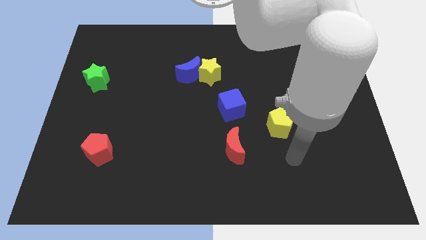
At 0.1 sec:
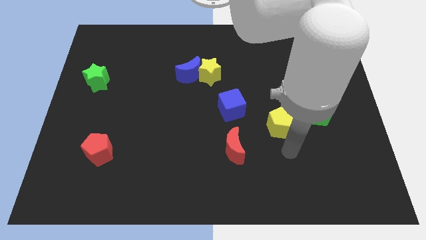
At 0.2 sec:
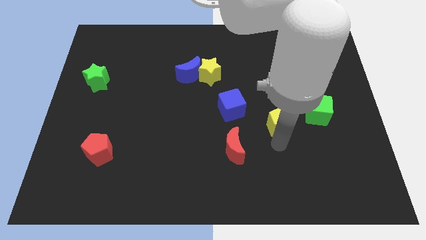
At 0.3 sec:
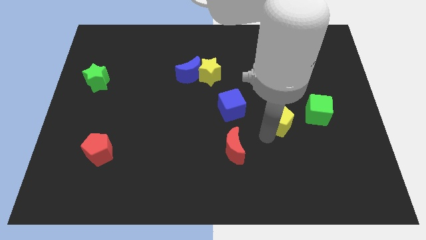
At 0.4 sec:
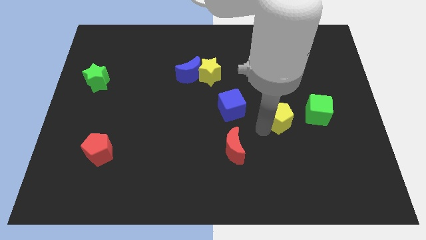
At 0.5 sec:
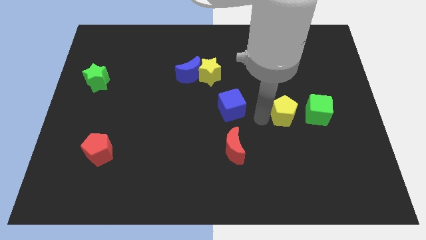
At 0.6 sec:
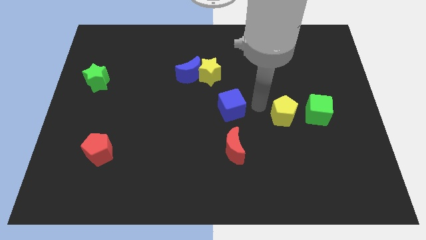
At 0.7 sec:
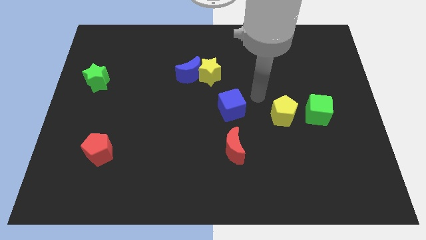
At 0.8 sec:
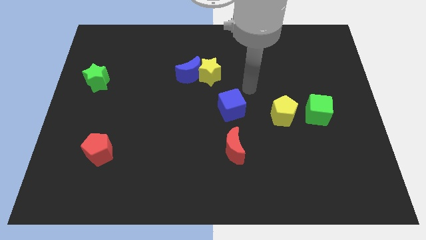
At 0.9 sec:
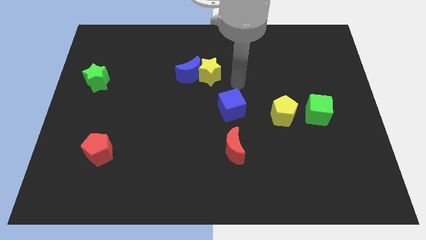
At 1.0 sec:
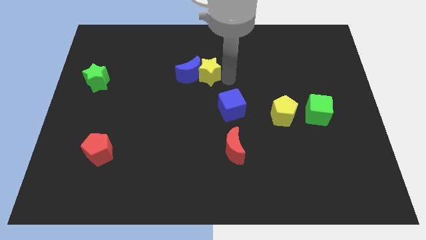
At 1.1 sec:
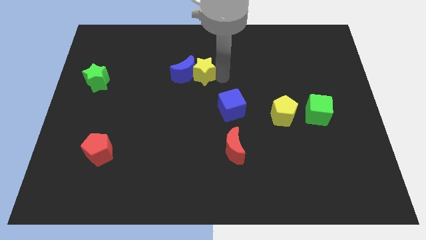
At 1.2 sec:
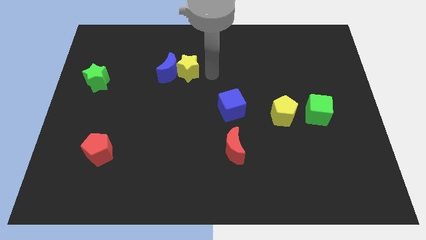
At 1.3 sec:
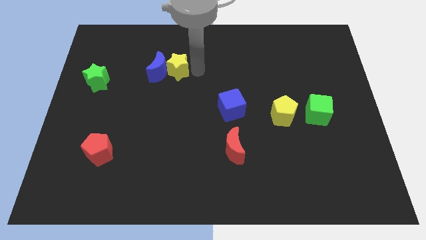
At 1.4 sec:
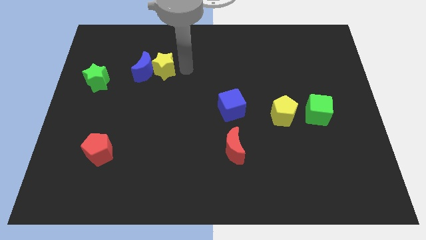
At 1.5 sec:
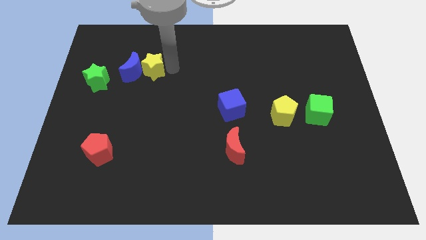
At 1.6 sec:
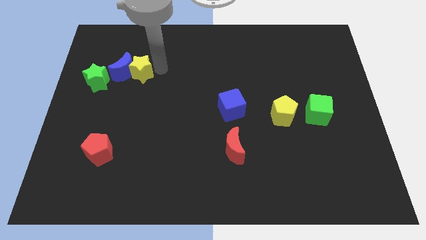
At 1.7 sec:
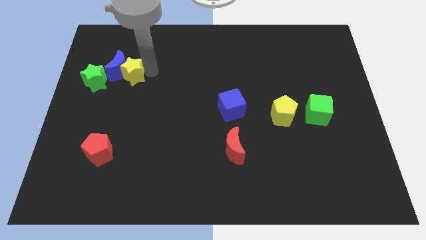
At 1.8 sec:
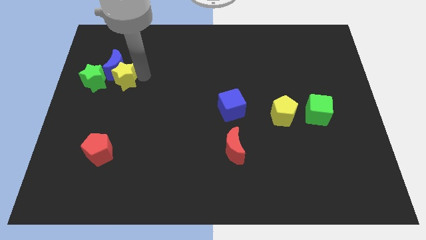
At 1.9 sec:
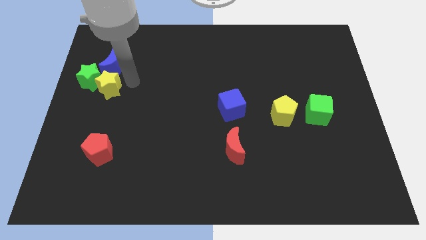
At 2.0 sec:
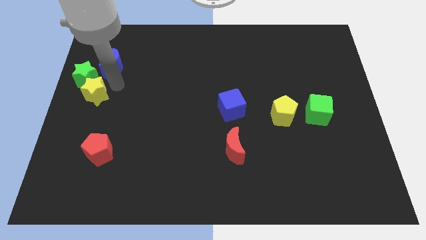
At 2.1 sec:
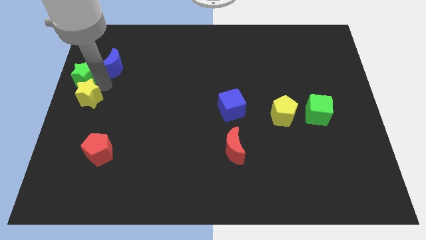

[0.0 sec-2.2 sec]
move the blue moon away from the yellow star

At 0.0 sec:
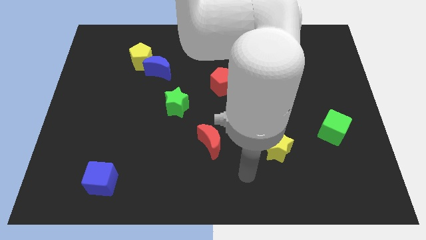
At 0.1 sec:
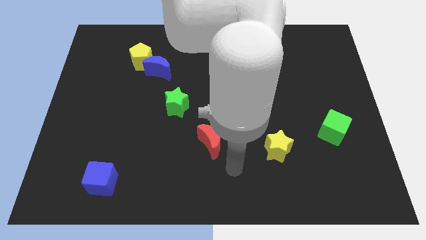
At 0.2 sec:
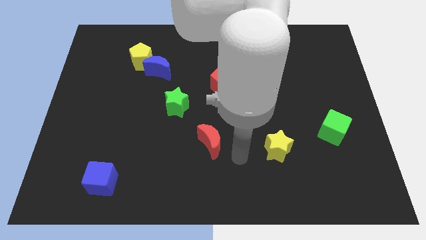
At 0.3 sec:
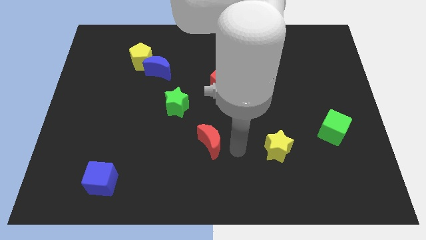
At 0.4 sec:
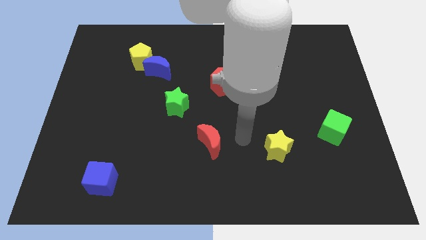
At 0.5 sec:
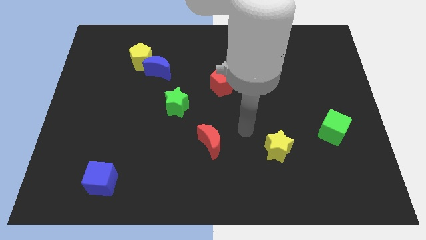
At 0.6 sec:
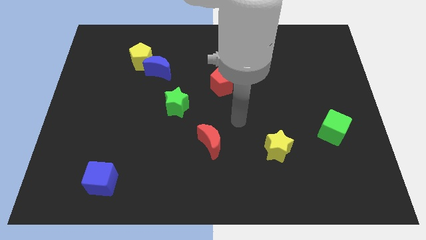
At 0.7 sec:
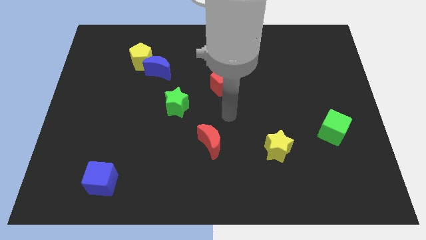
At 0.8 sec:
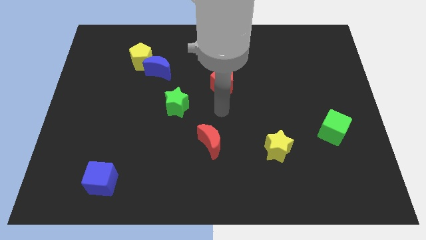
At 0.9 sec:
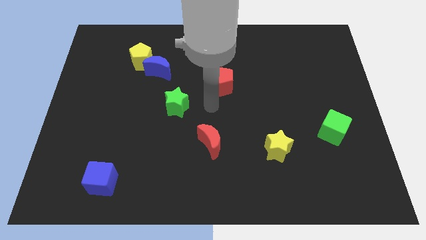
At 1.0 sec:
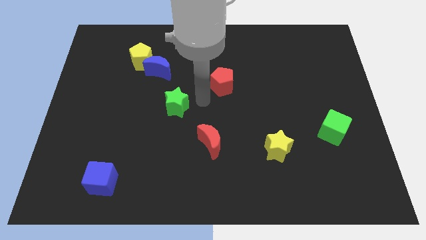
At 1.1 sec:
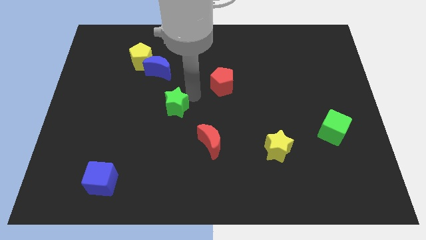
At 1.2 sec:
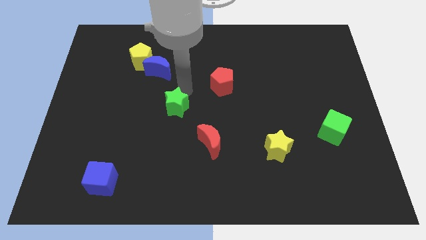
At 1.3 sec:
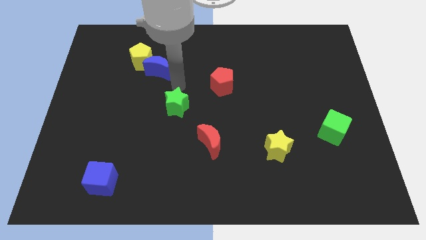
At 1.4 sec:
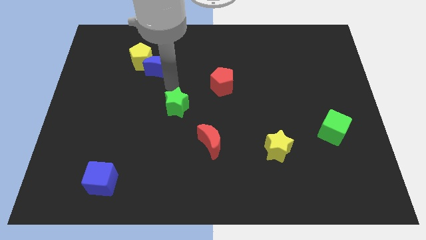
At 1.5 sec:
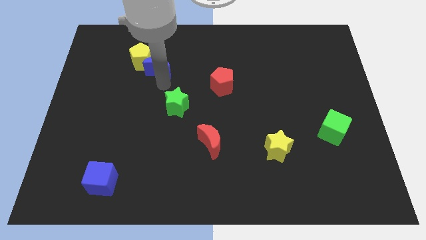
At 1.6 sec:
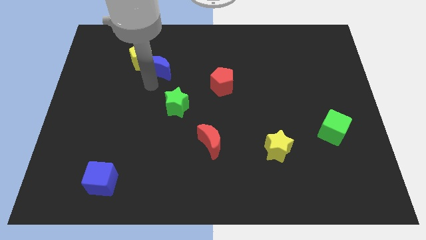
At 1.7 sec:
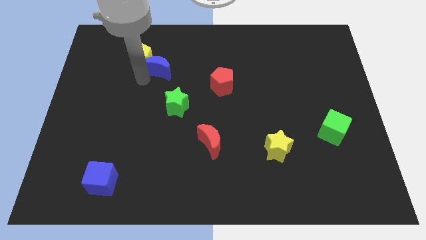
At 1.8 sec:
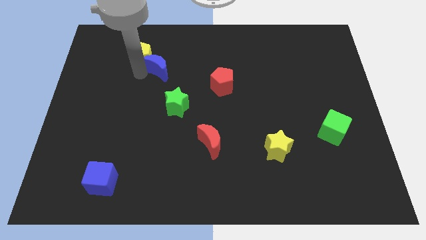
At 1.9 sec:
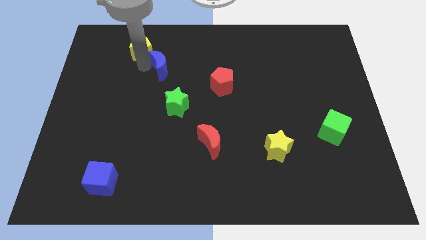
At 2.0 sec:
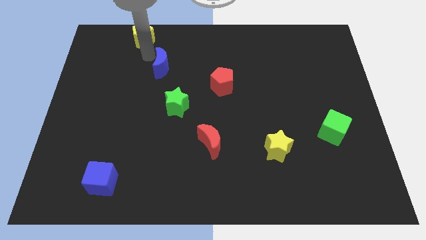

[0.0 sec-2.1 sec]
pull the blue moon apart from the yellow pentagon

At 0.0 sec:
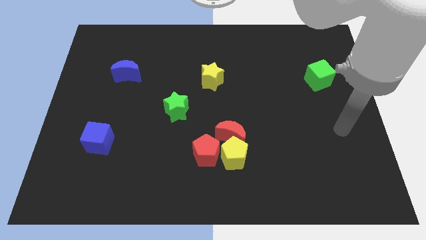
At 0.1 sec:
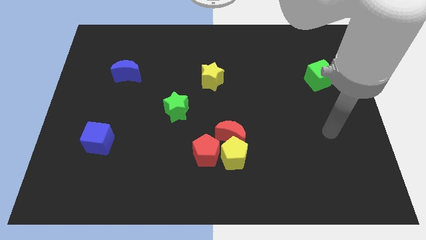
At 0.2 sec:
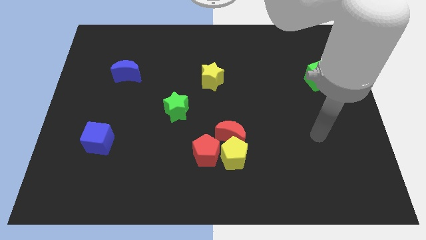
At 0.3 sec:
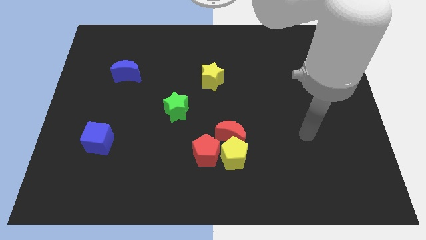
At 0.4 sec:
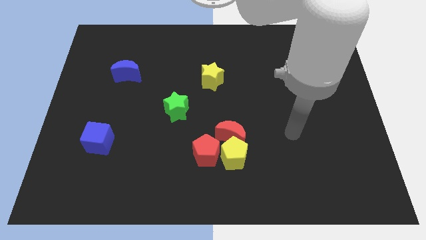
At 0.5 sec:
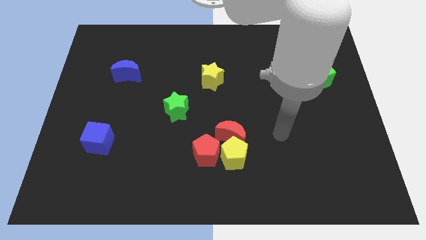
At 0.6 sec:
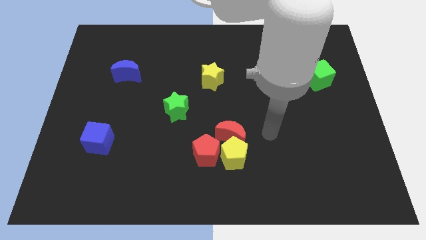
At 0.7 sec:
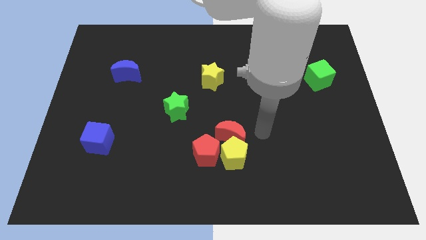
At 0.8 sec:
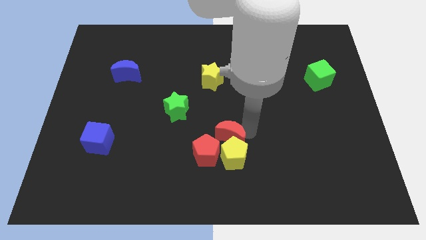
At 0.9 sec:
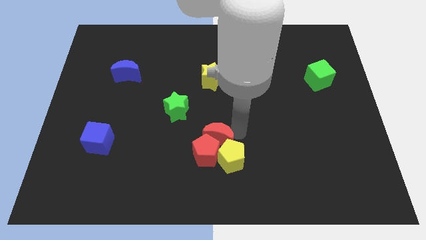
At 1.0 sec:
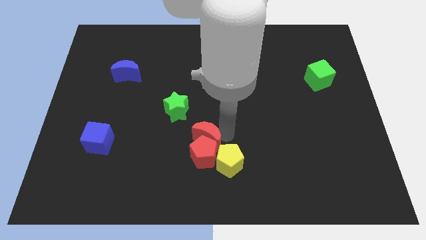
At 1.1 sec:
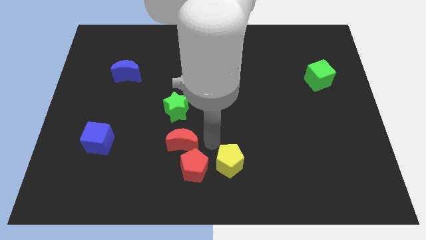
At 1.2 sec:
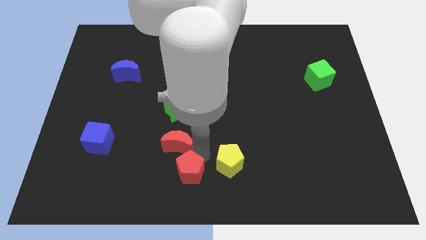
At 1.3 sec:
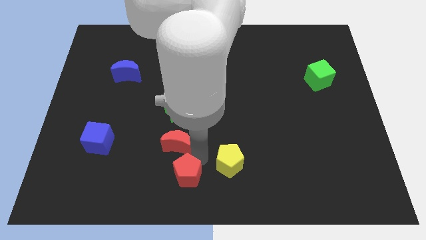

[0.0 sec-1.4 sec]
separate the yellow pentagon from the red moon and red pentagon

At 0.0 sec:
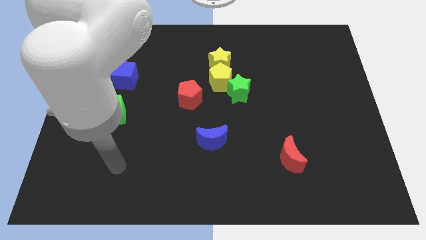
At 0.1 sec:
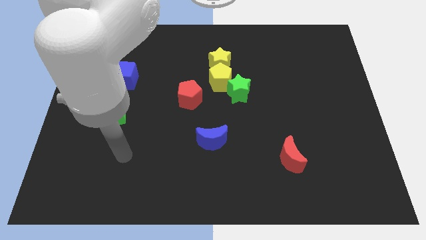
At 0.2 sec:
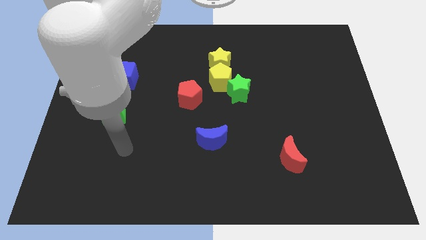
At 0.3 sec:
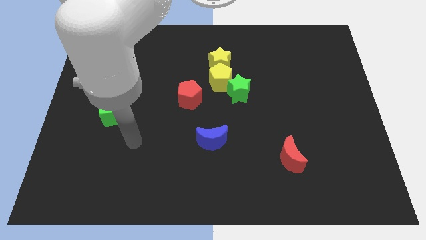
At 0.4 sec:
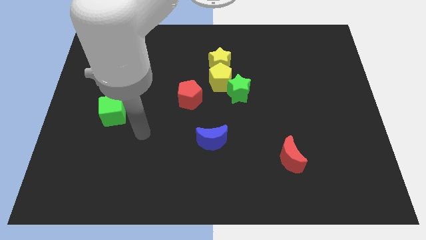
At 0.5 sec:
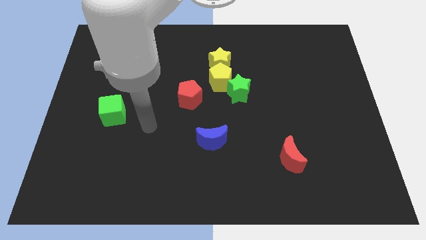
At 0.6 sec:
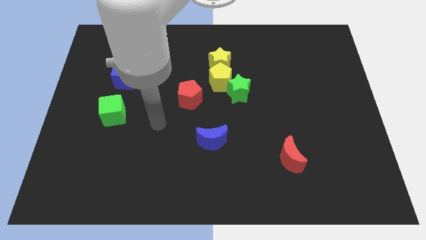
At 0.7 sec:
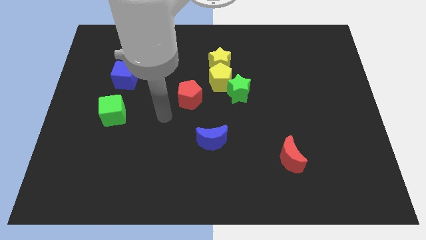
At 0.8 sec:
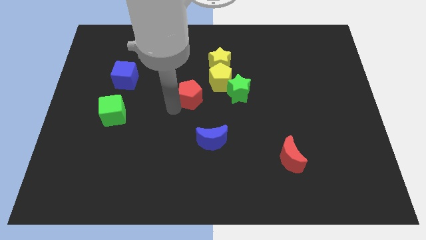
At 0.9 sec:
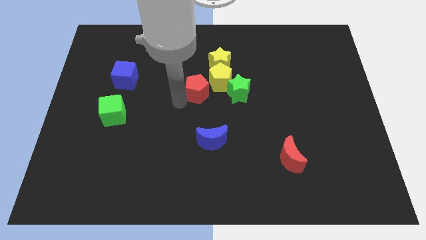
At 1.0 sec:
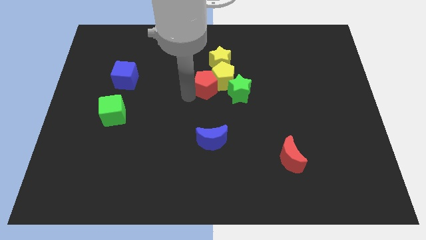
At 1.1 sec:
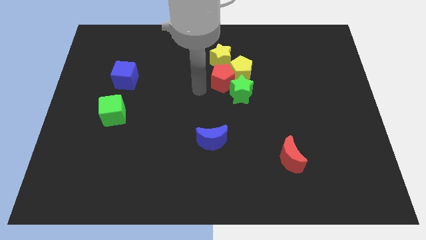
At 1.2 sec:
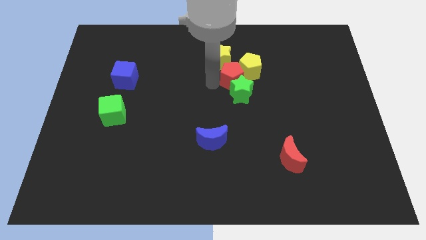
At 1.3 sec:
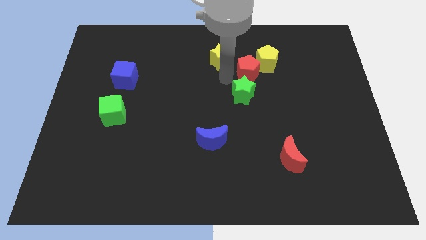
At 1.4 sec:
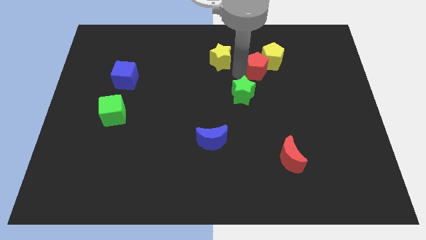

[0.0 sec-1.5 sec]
pull the yellow pentagon apart from the yellow star, green star, and red pentagon

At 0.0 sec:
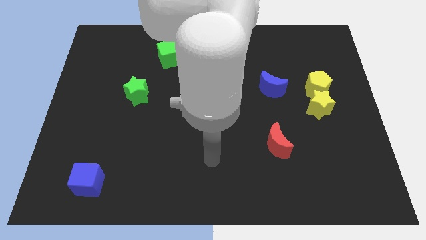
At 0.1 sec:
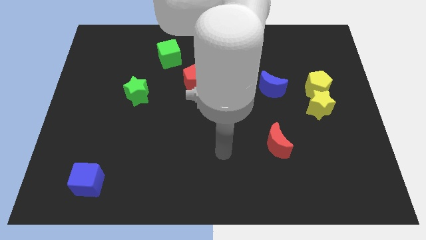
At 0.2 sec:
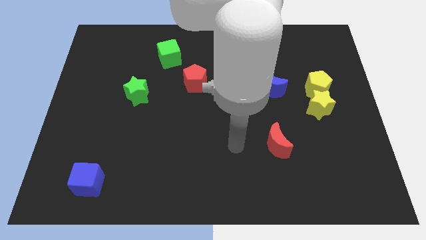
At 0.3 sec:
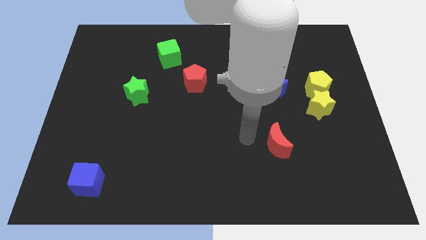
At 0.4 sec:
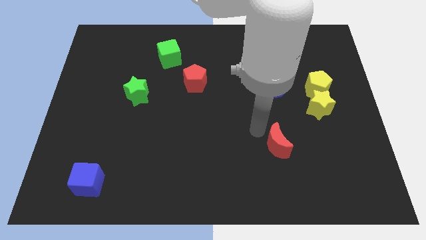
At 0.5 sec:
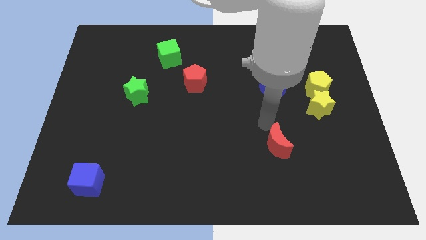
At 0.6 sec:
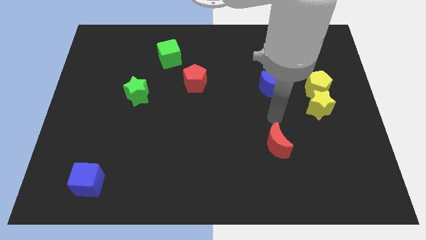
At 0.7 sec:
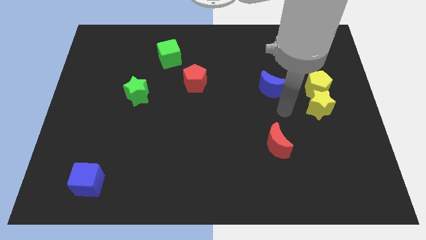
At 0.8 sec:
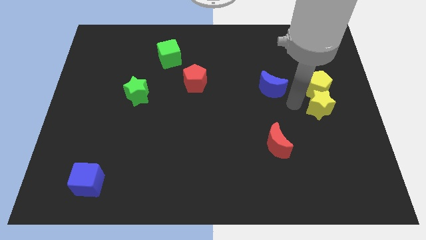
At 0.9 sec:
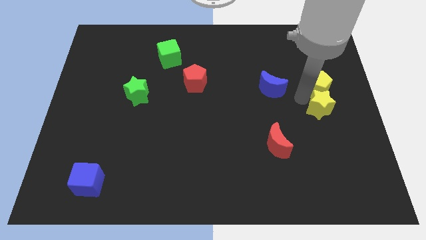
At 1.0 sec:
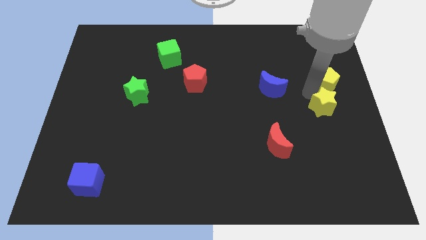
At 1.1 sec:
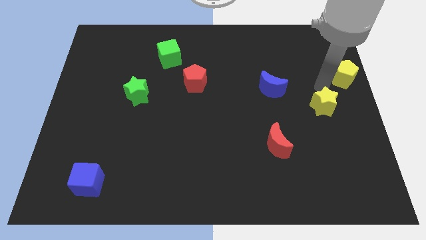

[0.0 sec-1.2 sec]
separate the yellow star from the yellow pentagon

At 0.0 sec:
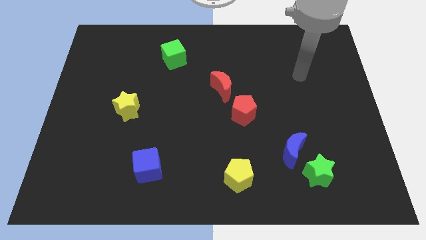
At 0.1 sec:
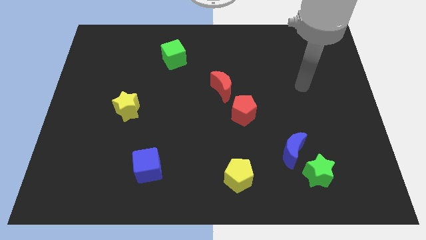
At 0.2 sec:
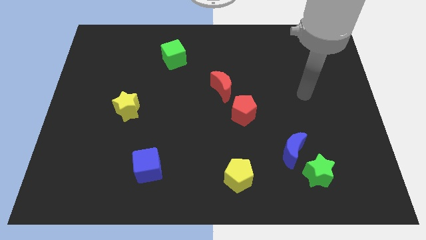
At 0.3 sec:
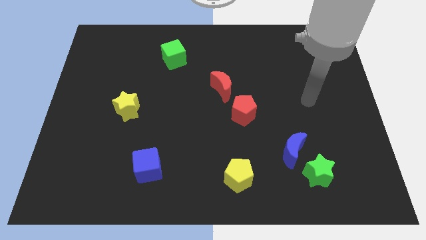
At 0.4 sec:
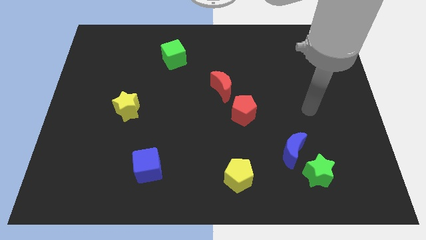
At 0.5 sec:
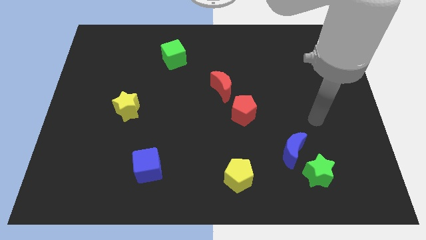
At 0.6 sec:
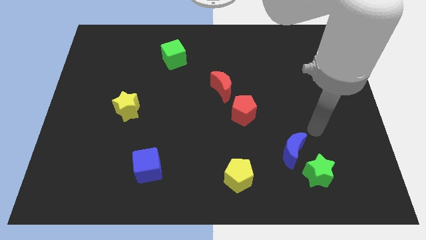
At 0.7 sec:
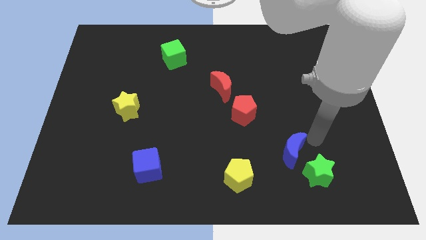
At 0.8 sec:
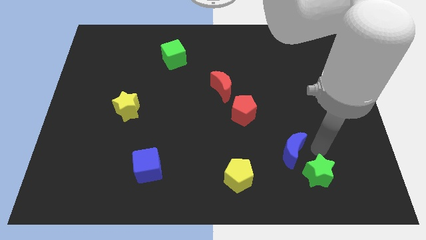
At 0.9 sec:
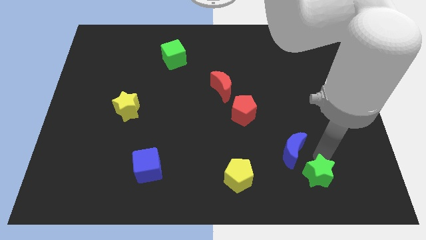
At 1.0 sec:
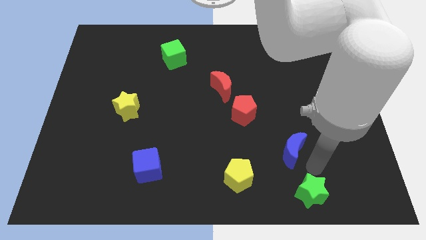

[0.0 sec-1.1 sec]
move the blue moon away from the green star
